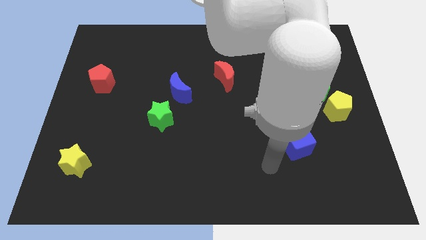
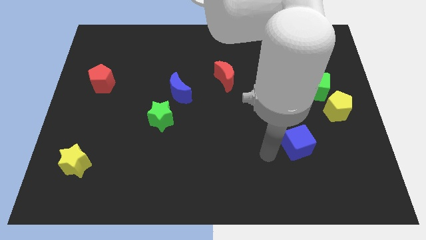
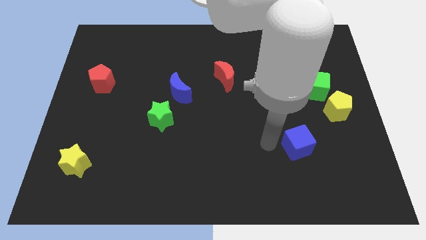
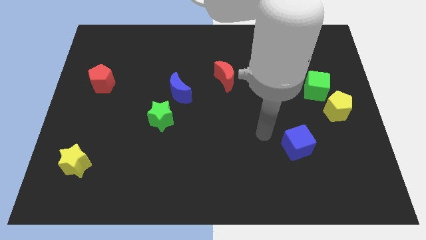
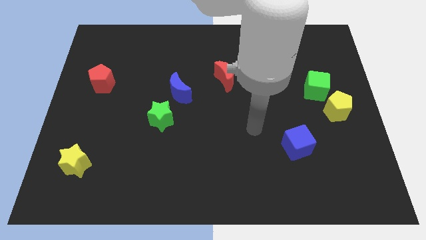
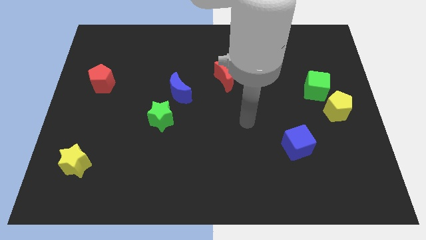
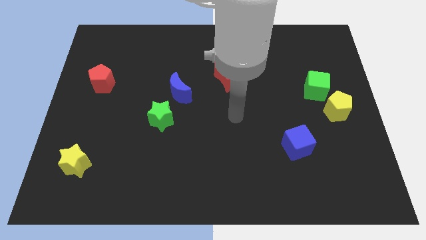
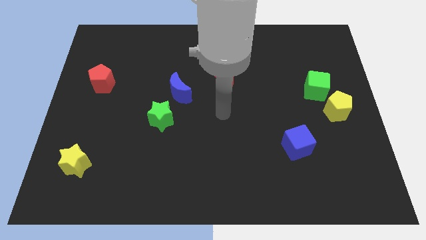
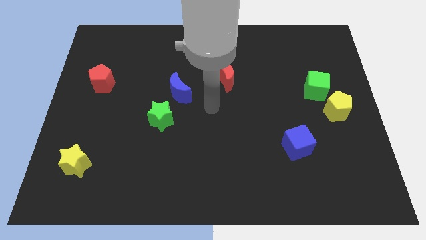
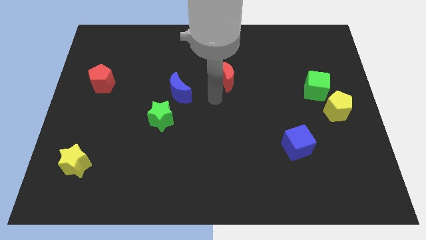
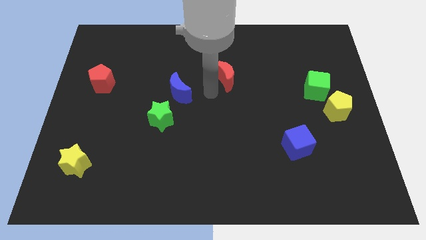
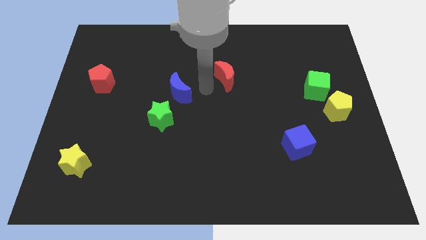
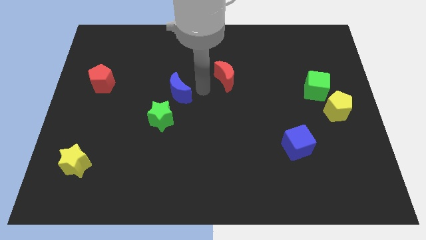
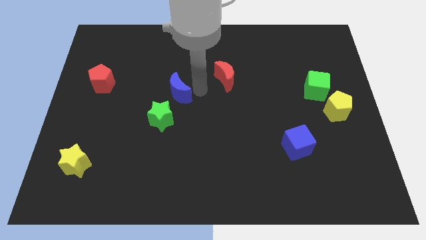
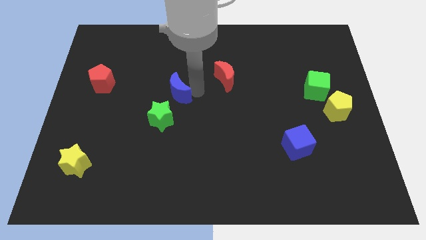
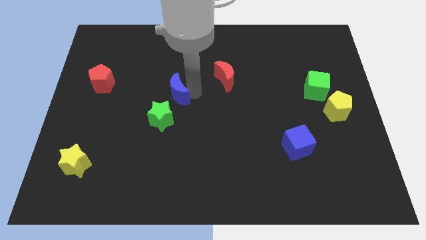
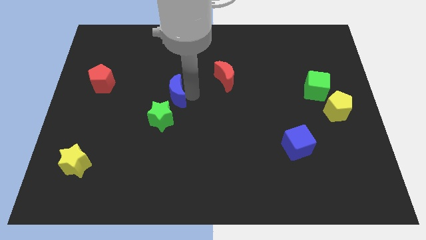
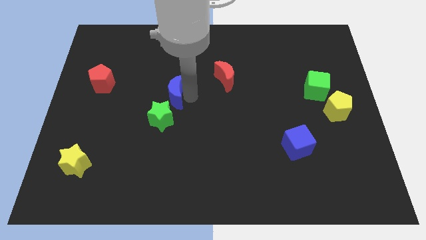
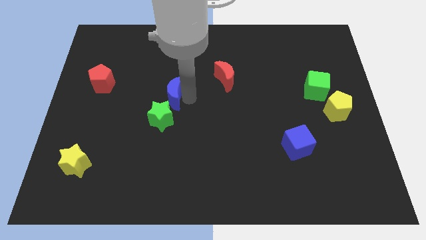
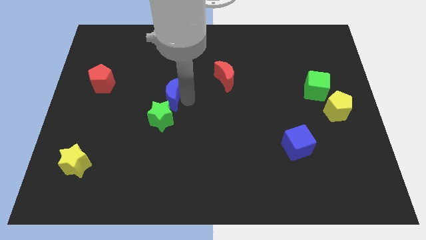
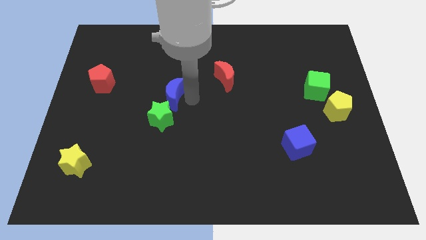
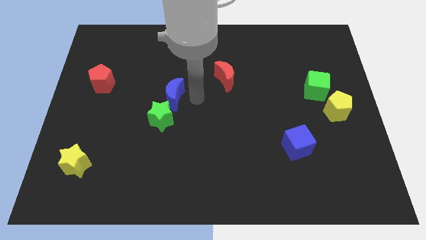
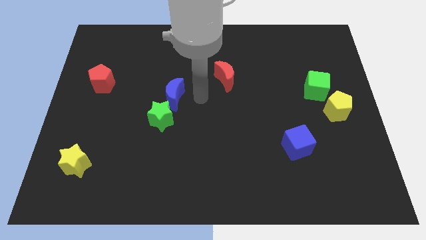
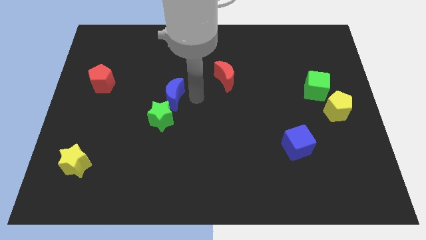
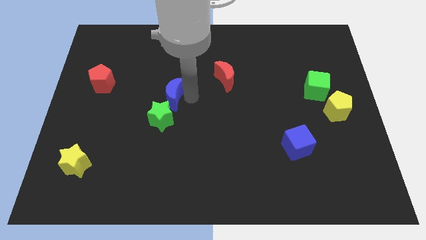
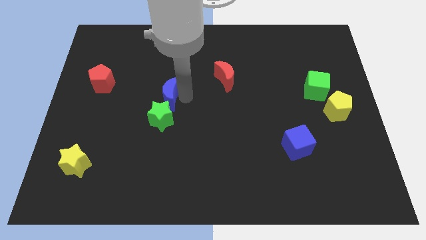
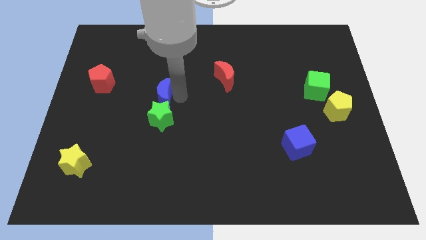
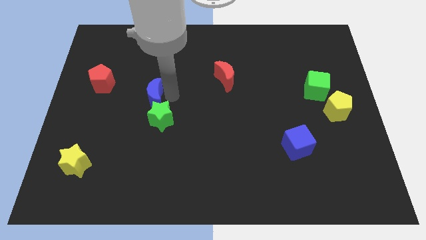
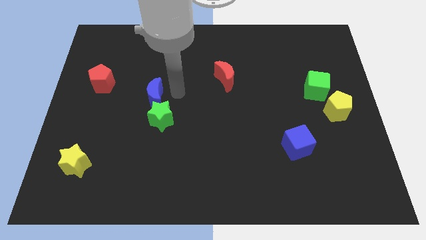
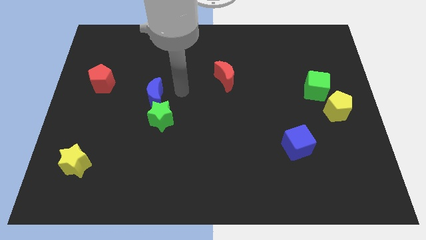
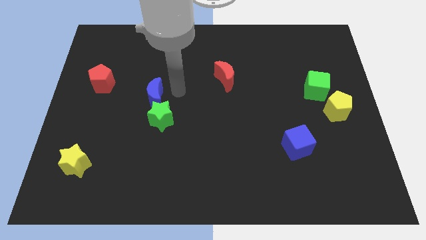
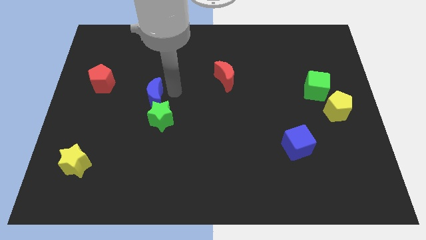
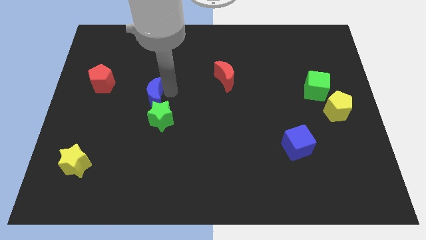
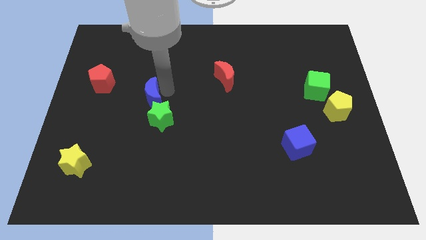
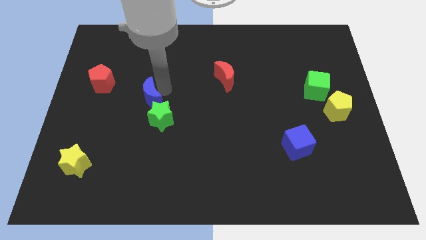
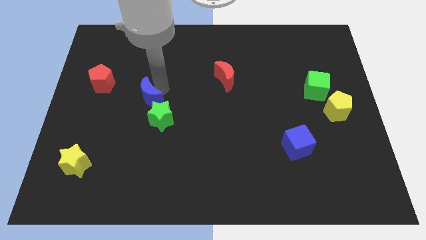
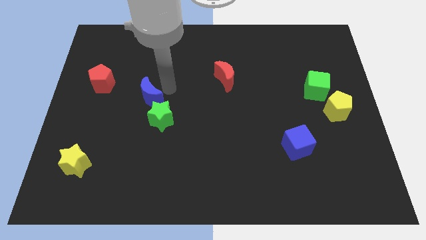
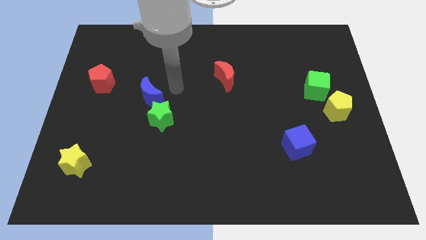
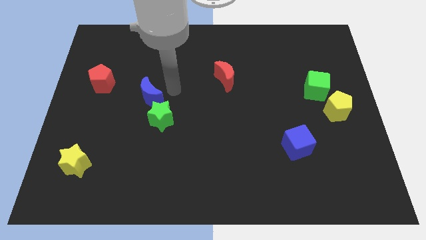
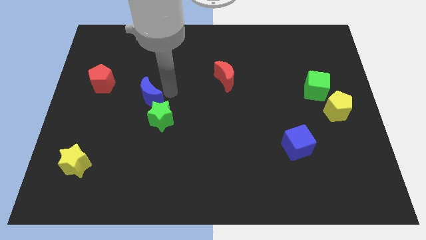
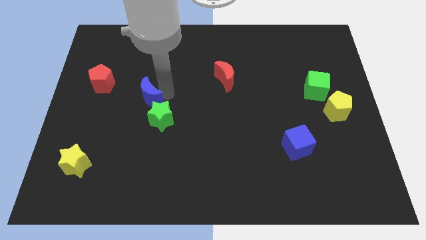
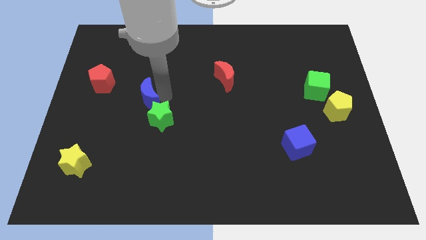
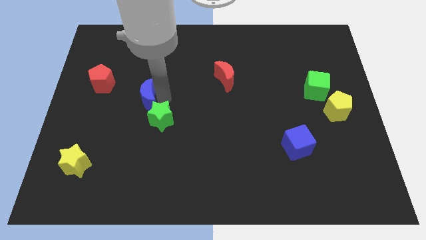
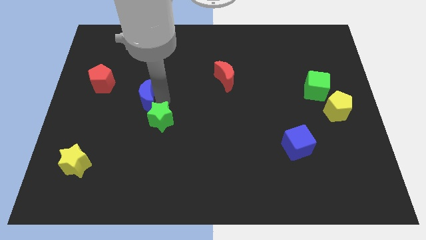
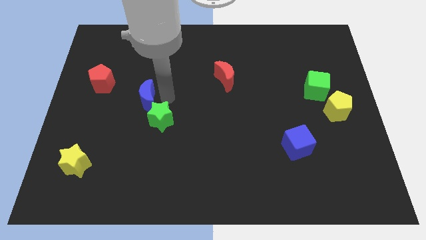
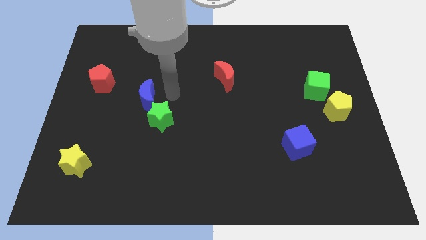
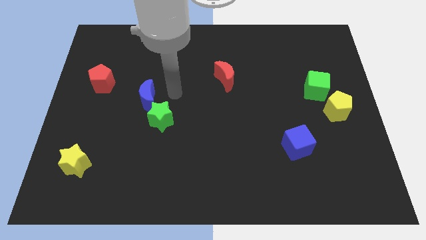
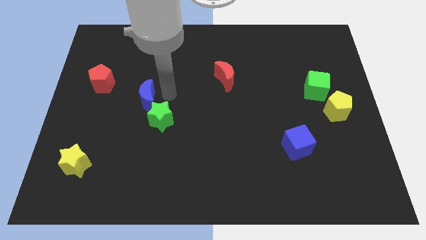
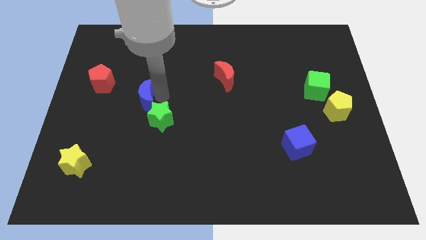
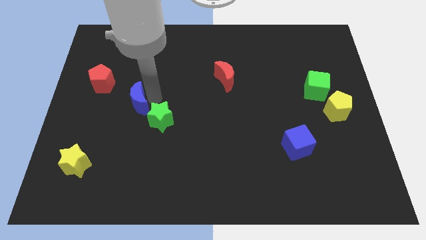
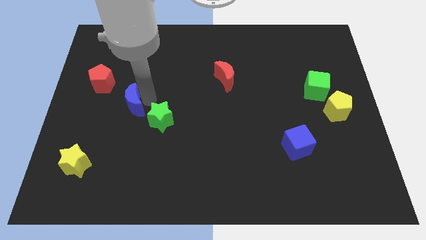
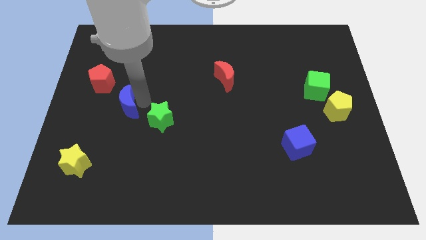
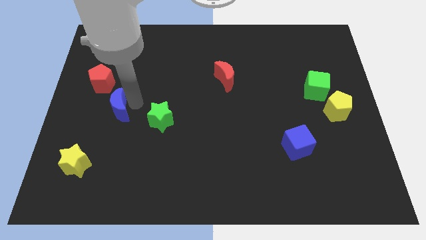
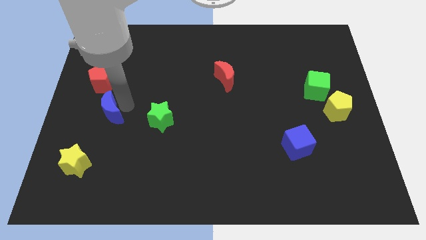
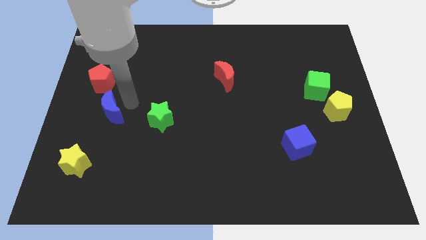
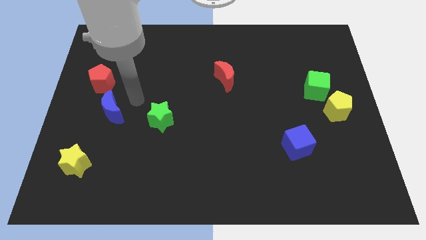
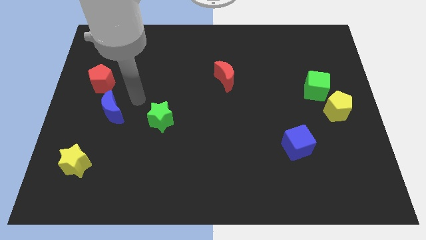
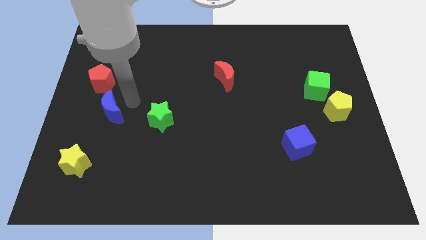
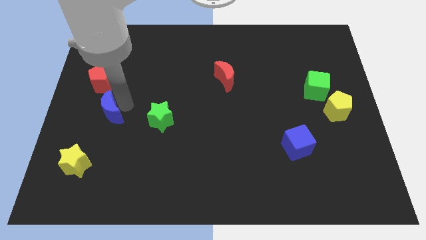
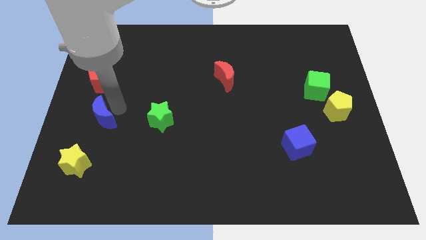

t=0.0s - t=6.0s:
put the blue moon to the top side of the yellow star

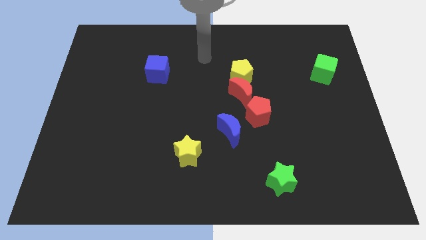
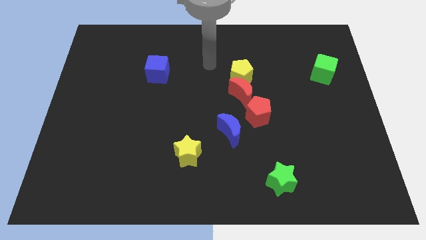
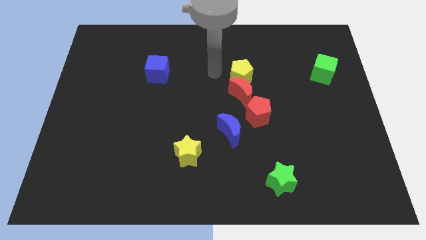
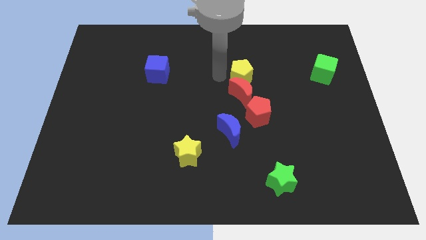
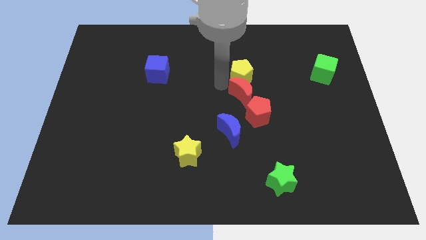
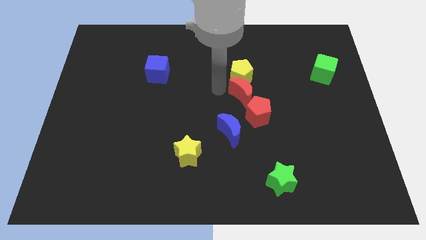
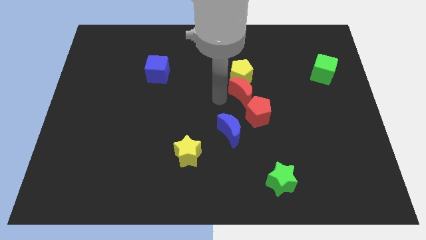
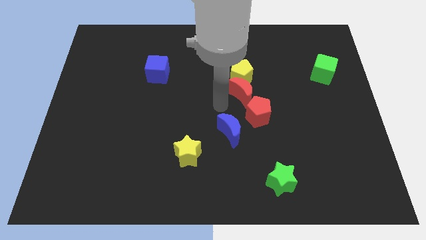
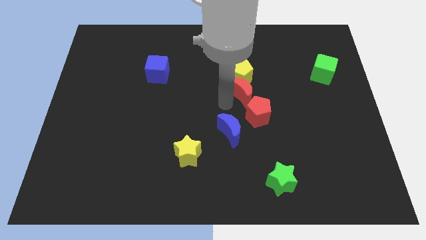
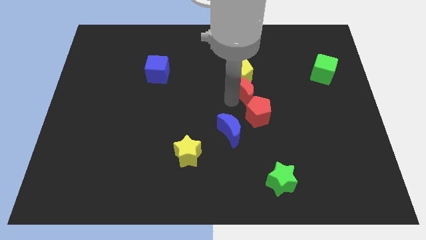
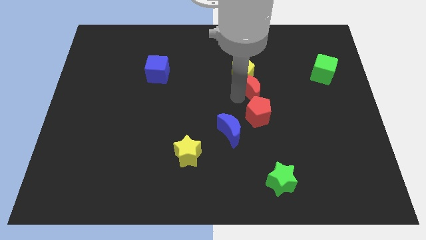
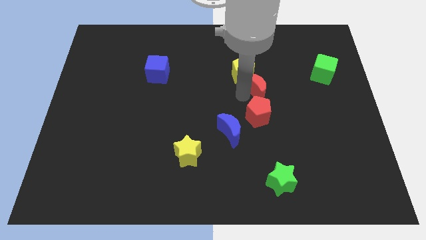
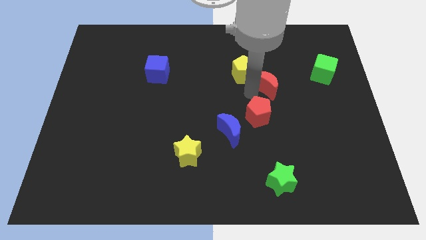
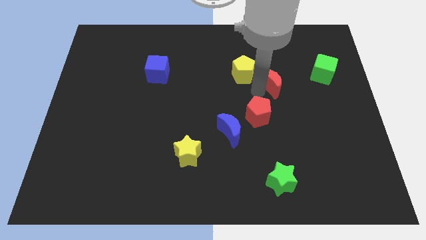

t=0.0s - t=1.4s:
push the red moon to the left of the green cube

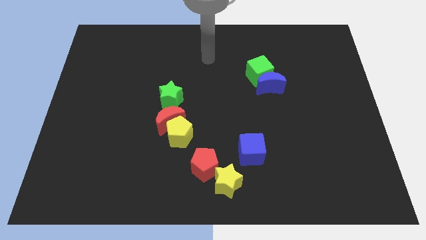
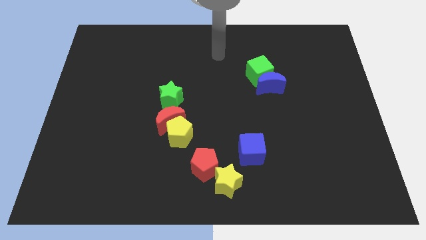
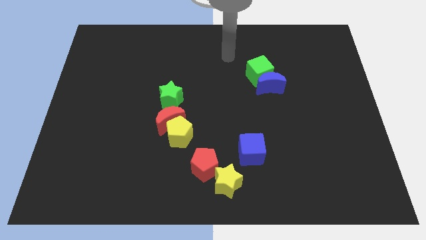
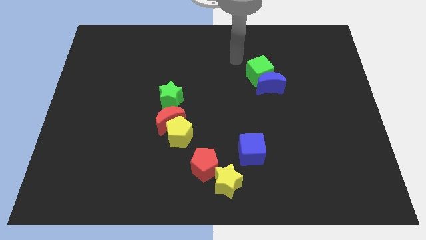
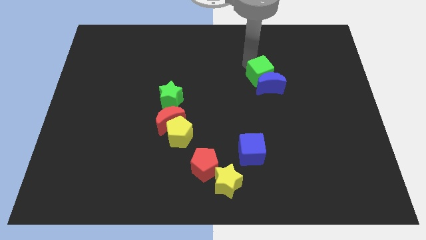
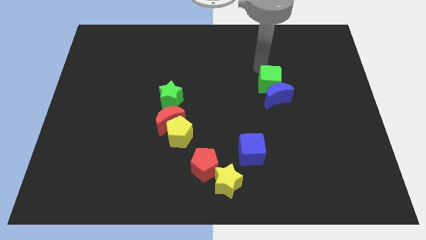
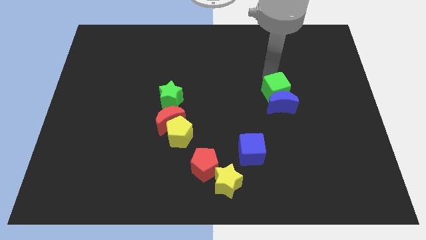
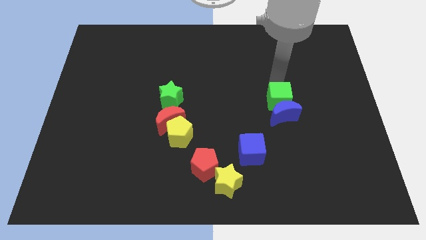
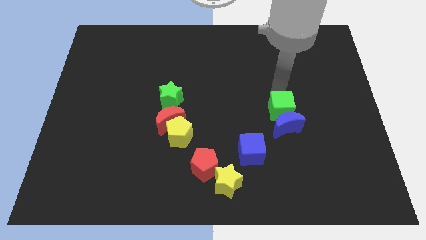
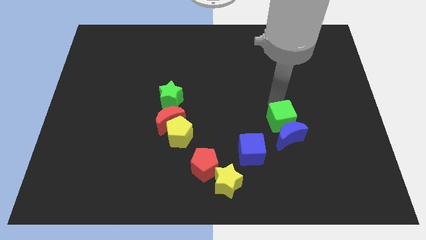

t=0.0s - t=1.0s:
push the blue moon right of the blue cube
